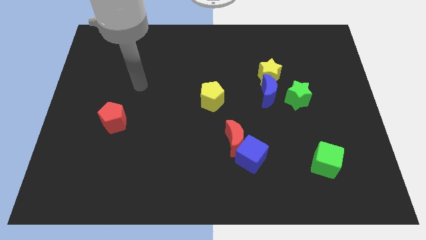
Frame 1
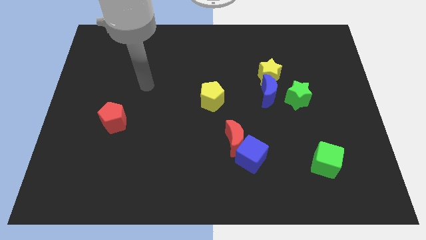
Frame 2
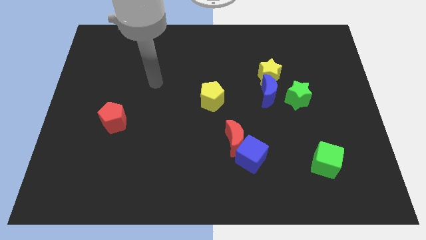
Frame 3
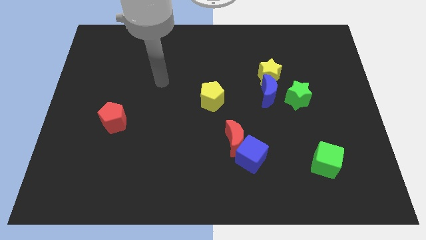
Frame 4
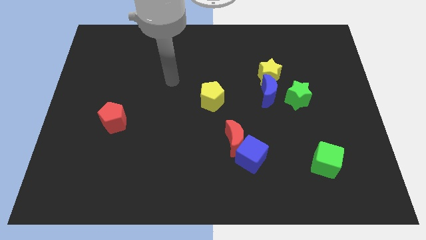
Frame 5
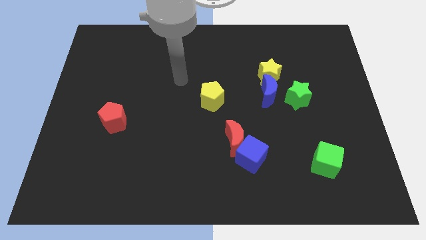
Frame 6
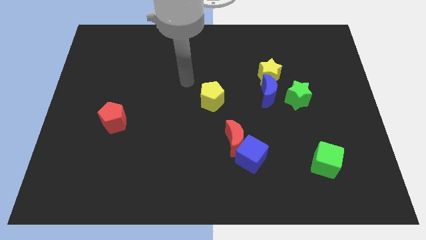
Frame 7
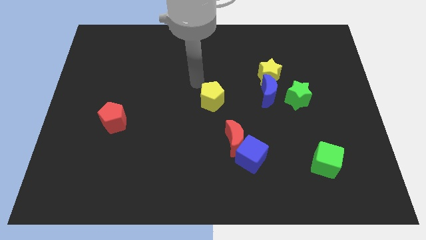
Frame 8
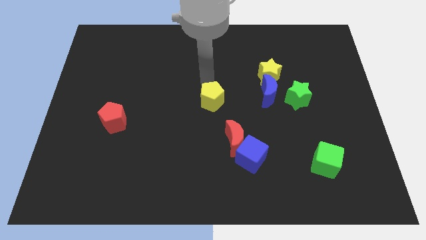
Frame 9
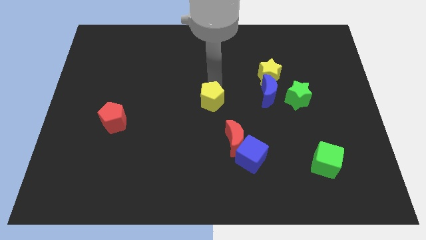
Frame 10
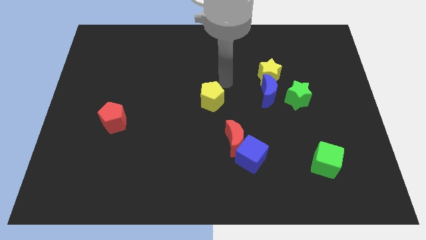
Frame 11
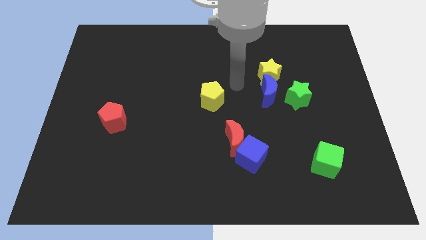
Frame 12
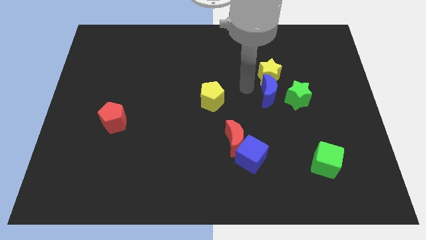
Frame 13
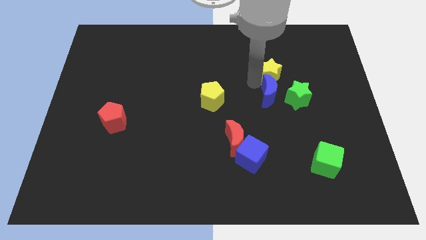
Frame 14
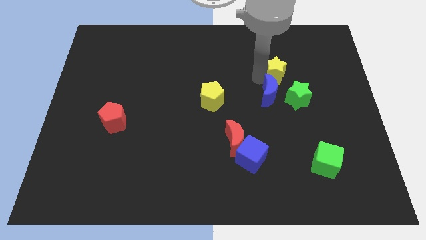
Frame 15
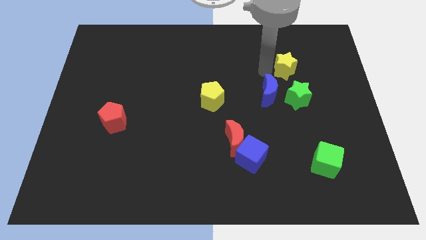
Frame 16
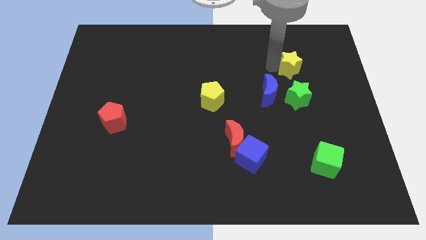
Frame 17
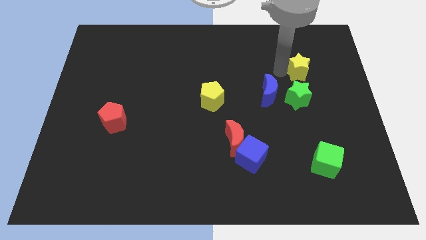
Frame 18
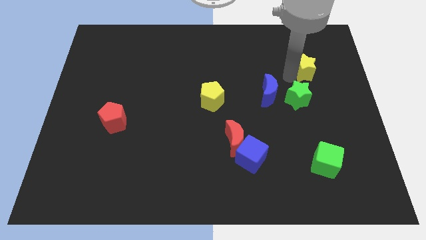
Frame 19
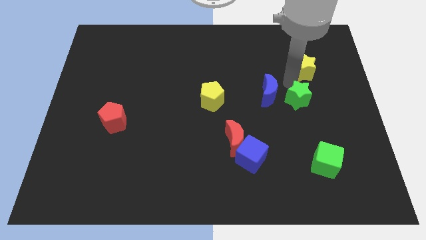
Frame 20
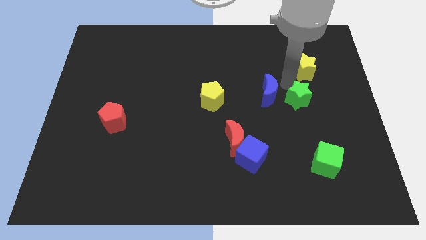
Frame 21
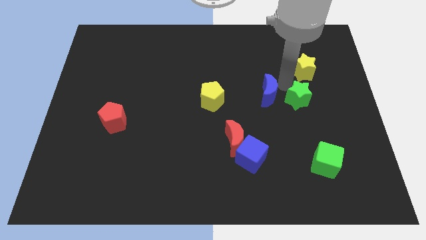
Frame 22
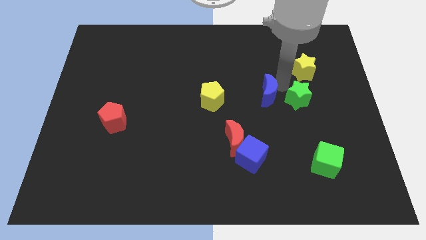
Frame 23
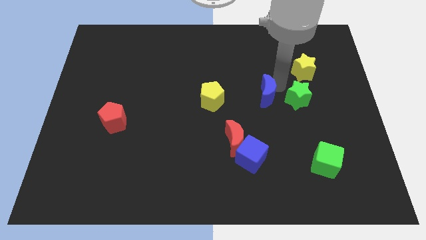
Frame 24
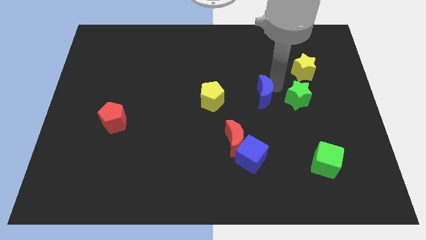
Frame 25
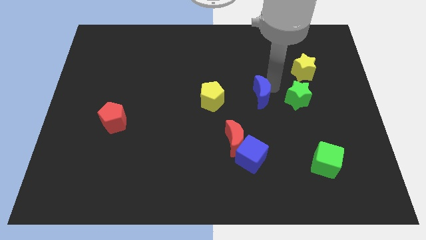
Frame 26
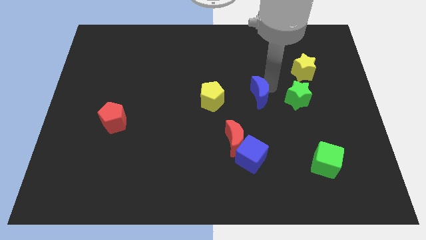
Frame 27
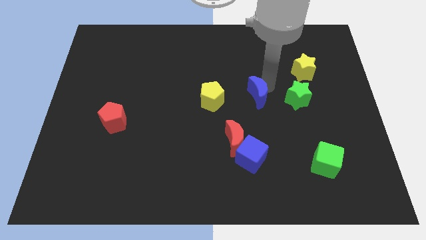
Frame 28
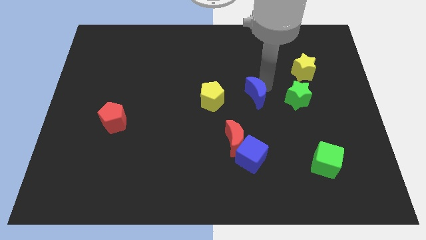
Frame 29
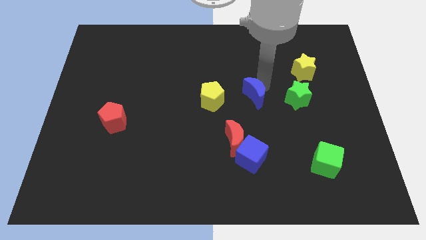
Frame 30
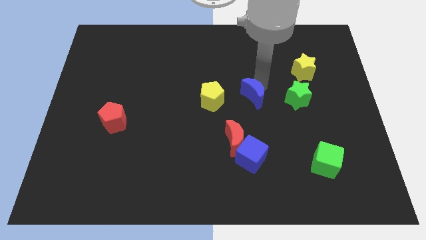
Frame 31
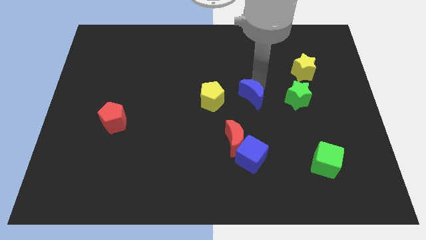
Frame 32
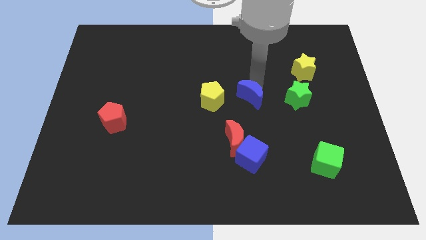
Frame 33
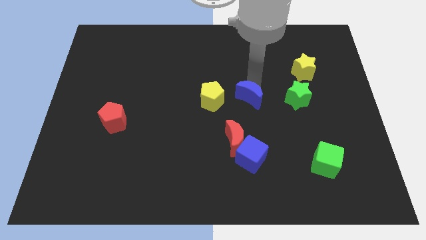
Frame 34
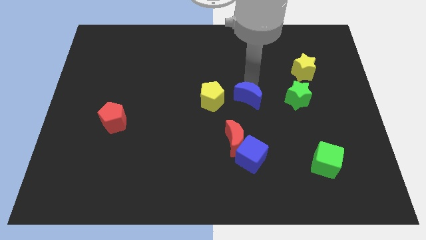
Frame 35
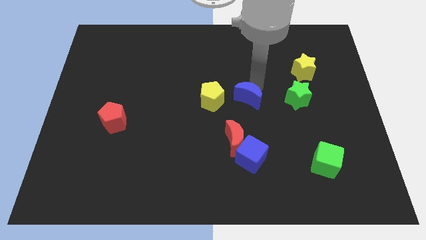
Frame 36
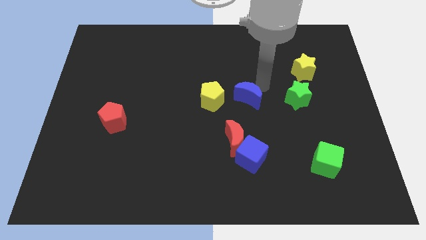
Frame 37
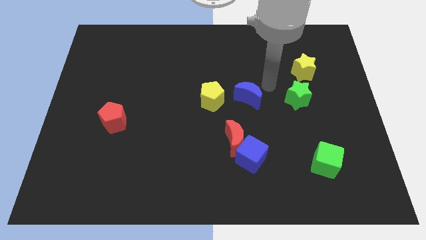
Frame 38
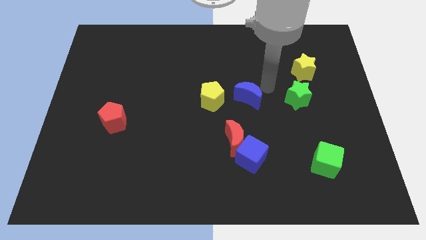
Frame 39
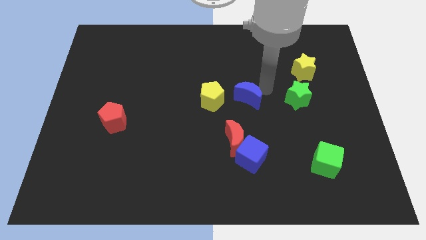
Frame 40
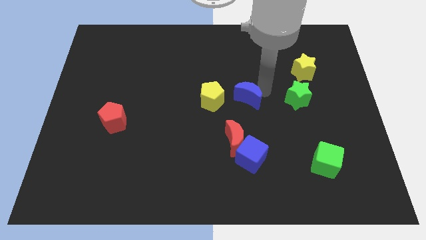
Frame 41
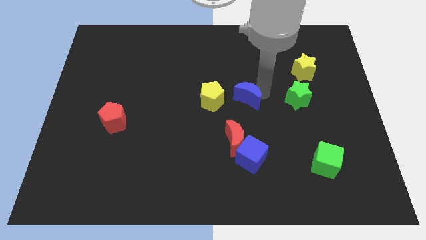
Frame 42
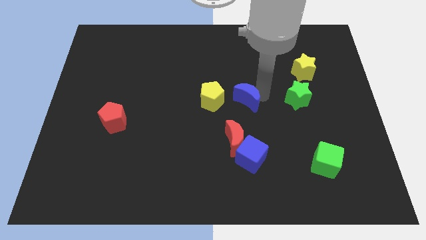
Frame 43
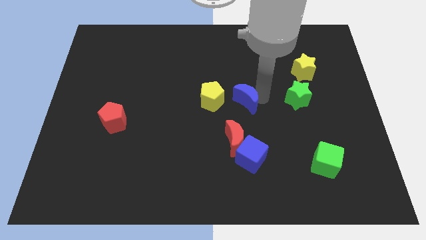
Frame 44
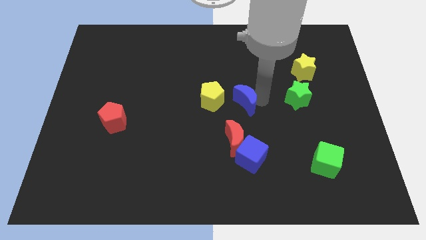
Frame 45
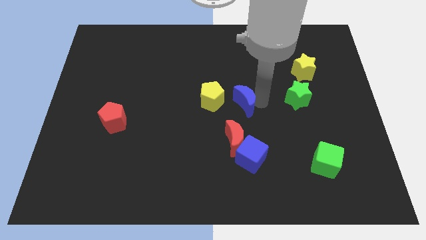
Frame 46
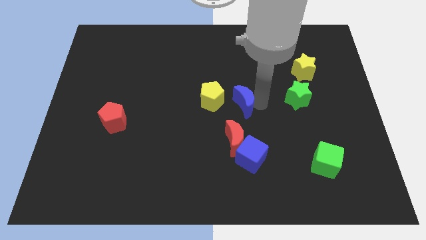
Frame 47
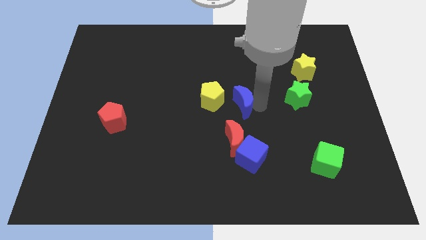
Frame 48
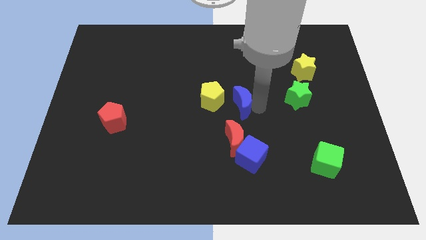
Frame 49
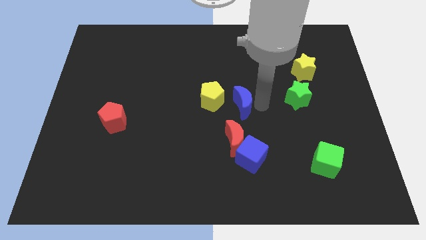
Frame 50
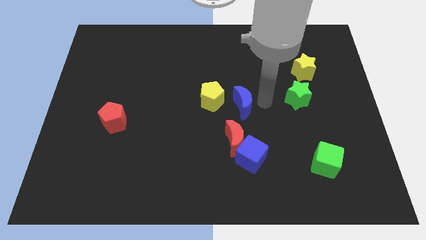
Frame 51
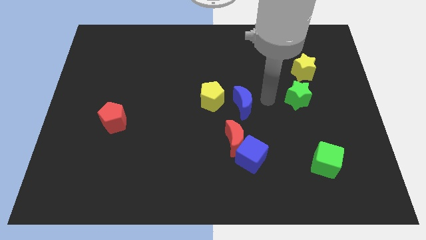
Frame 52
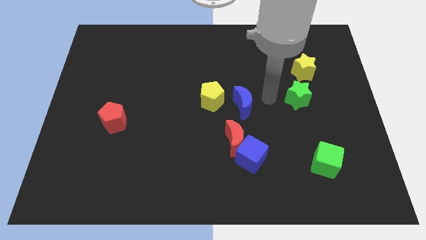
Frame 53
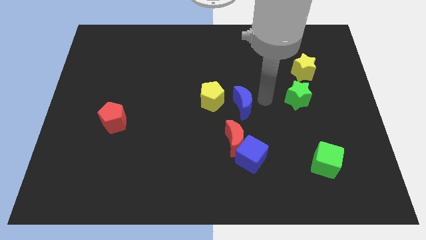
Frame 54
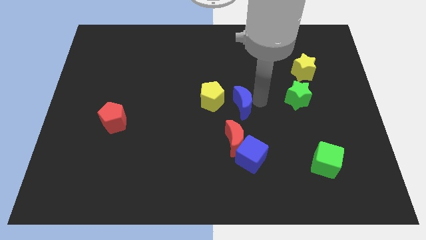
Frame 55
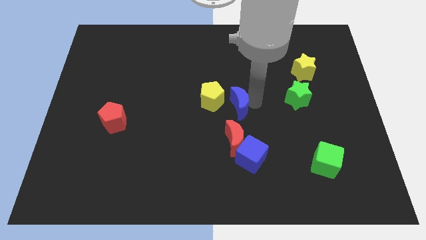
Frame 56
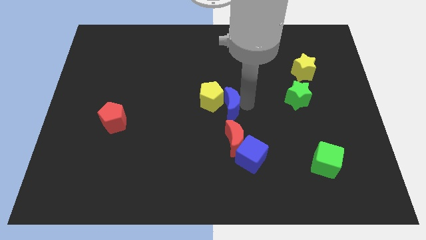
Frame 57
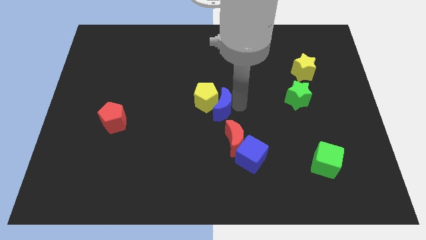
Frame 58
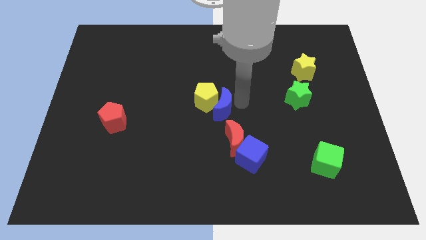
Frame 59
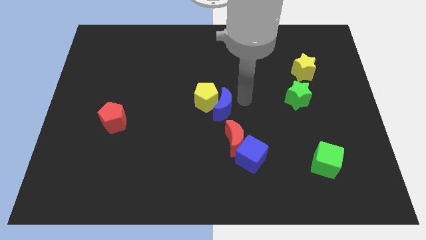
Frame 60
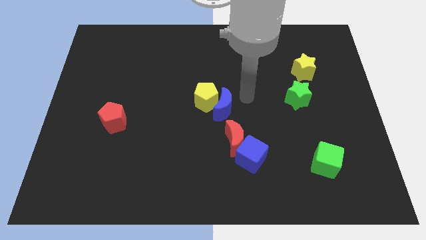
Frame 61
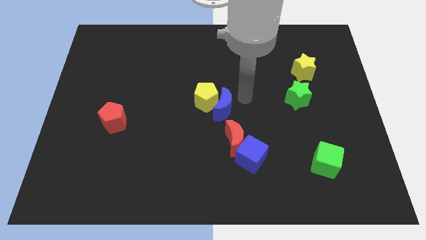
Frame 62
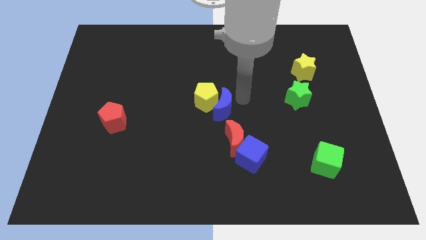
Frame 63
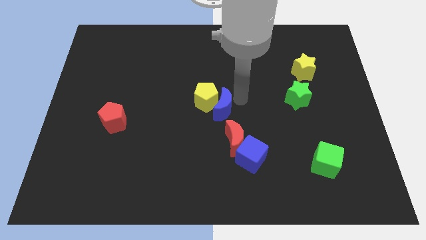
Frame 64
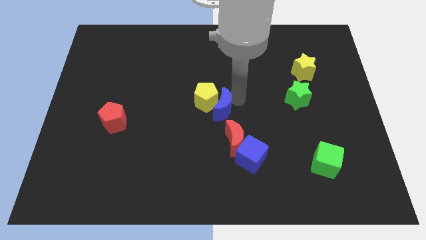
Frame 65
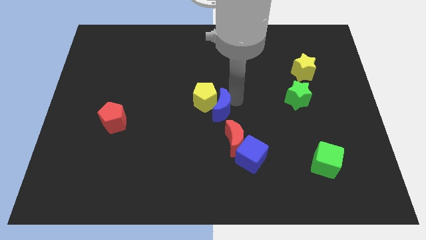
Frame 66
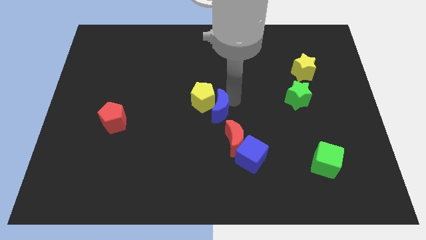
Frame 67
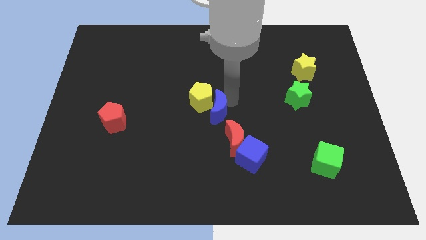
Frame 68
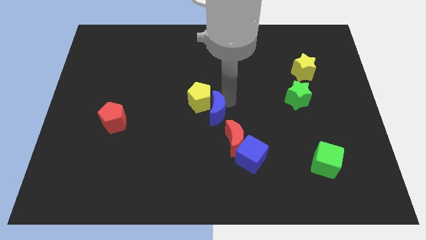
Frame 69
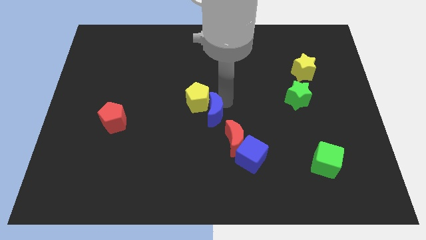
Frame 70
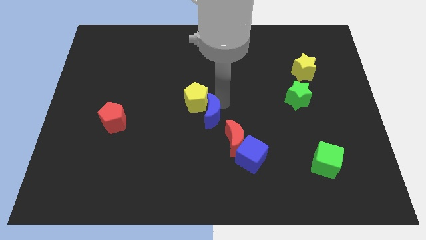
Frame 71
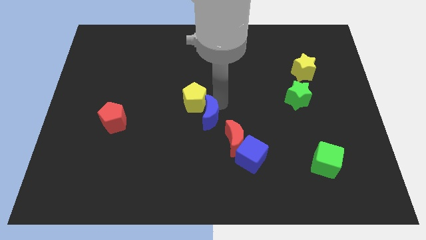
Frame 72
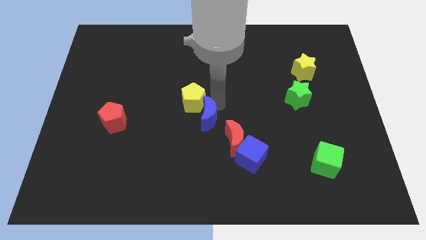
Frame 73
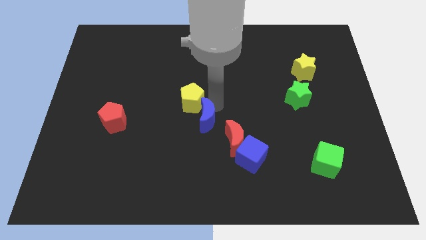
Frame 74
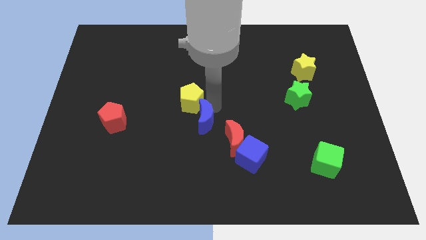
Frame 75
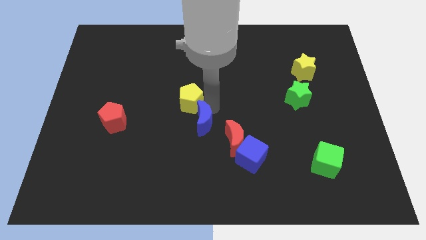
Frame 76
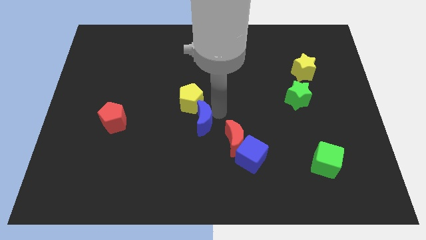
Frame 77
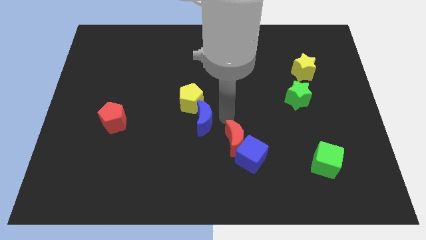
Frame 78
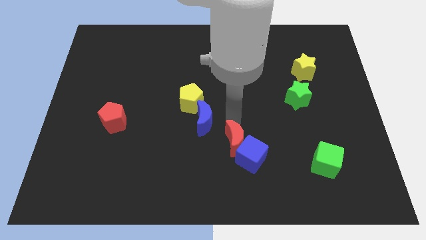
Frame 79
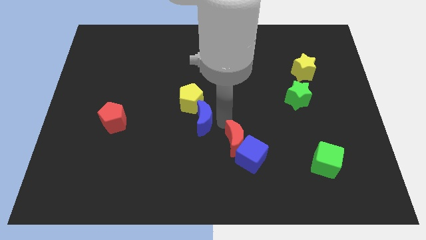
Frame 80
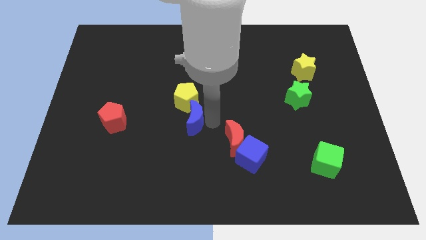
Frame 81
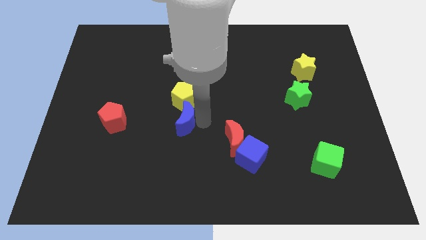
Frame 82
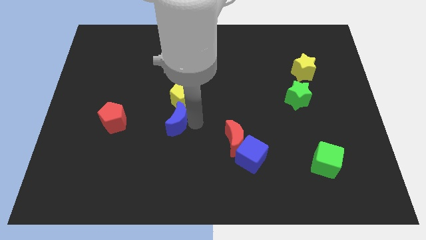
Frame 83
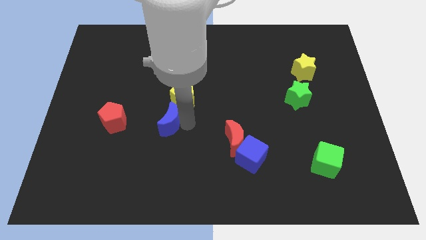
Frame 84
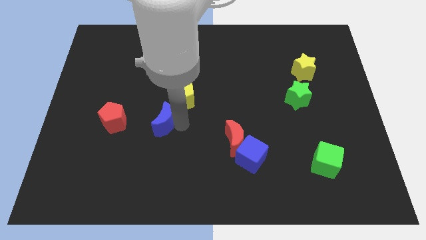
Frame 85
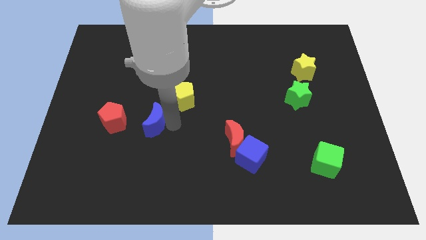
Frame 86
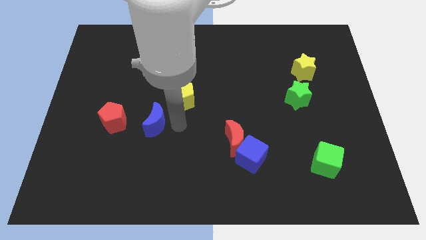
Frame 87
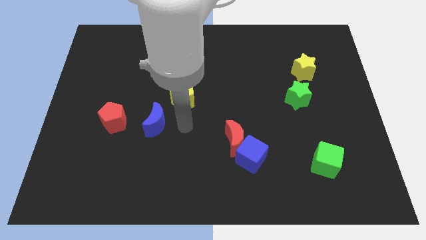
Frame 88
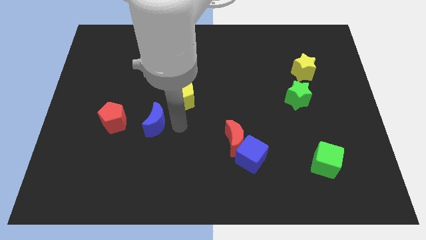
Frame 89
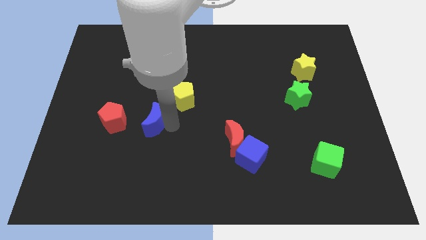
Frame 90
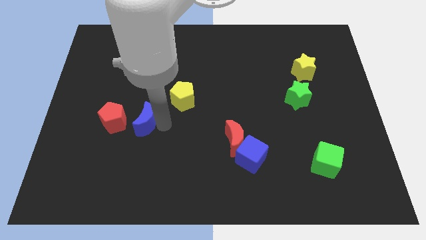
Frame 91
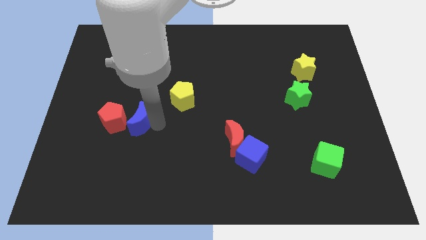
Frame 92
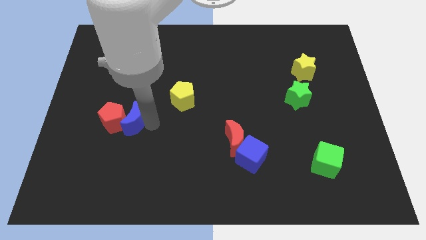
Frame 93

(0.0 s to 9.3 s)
move the blue moon towards the red pentagon
